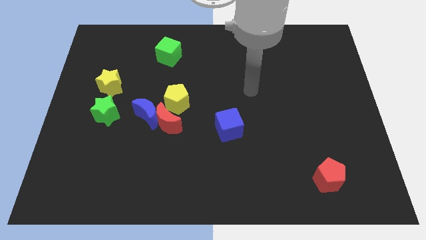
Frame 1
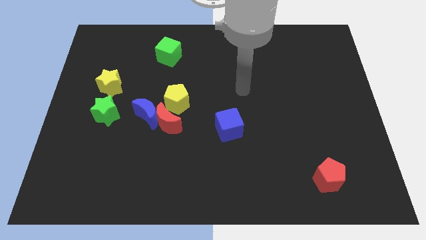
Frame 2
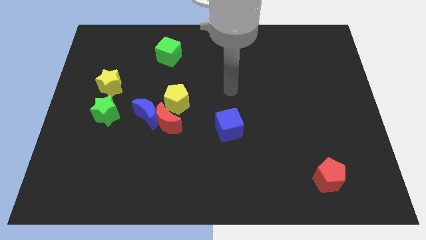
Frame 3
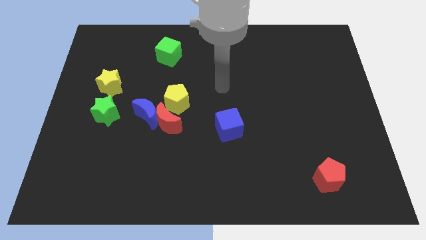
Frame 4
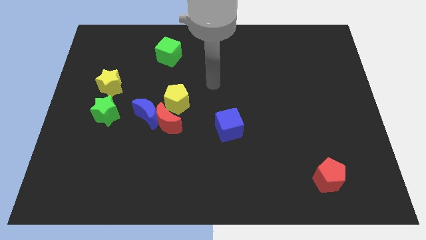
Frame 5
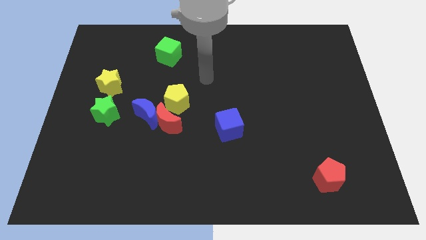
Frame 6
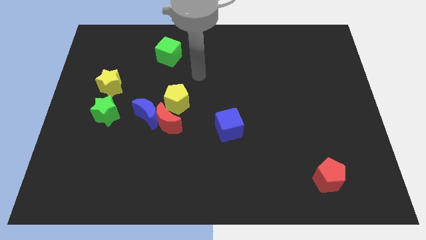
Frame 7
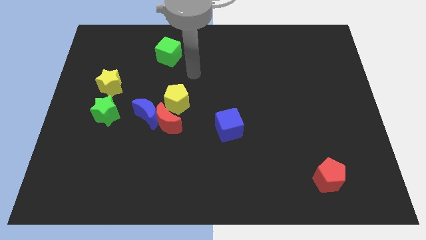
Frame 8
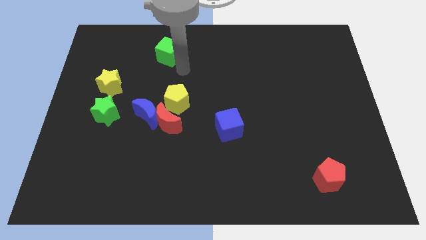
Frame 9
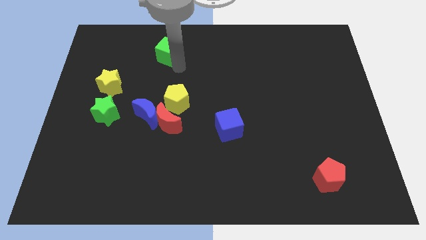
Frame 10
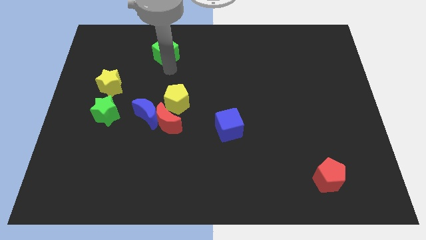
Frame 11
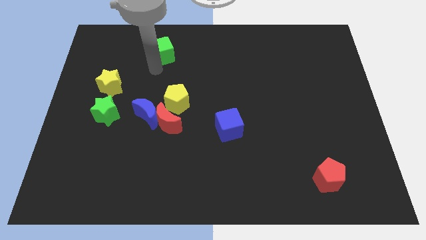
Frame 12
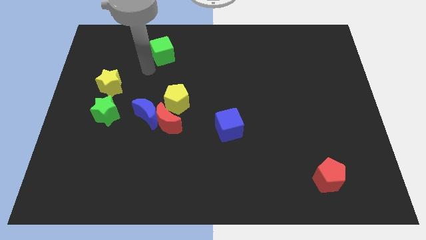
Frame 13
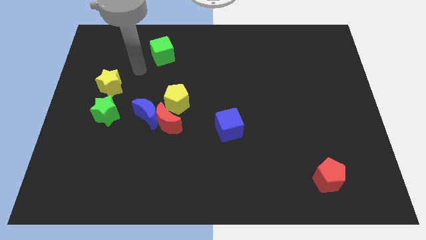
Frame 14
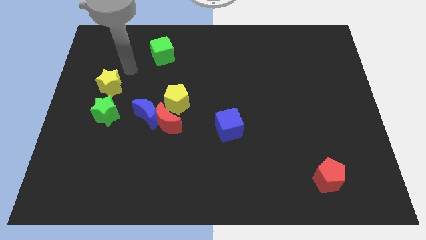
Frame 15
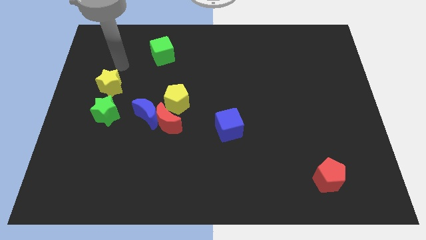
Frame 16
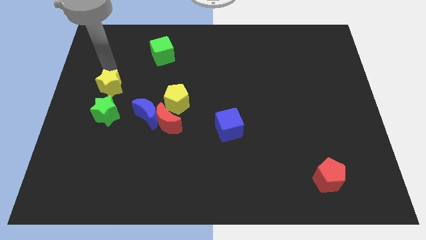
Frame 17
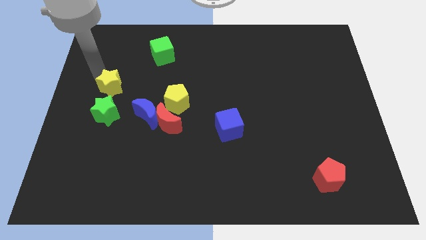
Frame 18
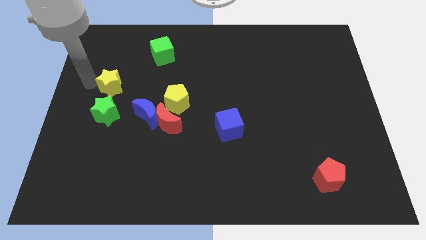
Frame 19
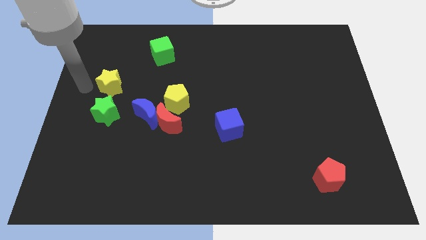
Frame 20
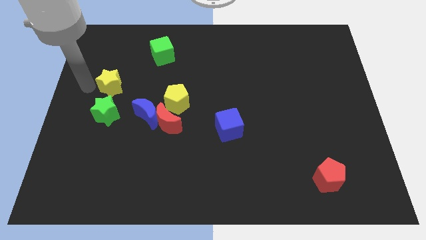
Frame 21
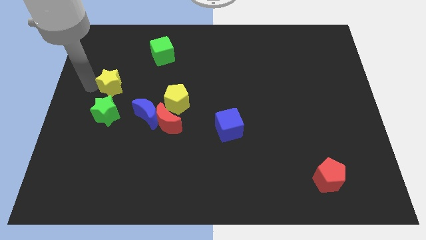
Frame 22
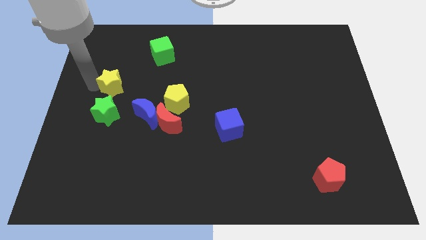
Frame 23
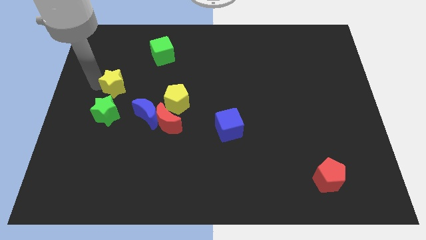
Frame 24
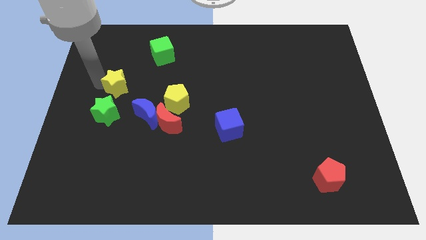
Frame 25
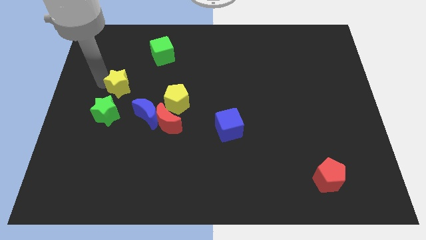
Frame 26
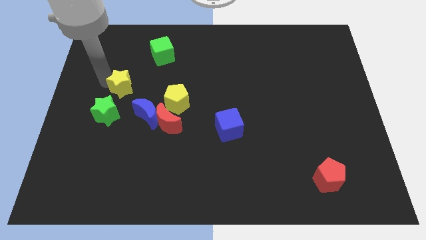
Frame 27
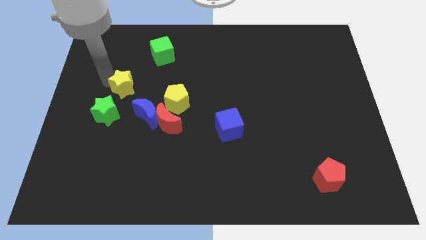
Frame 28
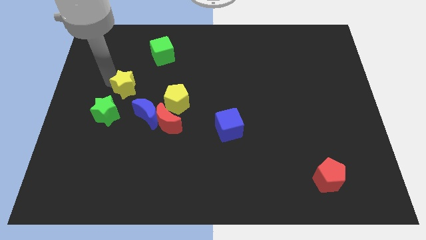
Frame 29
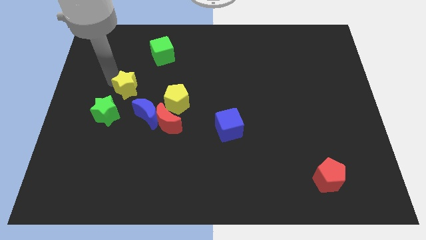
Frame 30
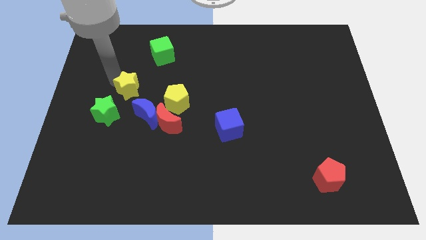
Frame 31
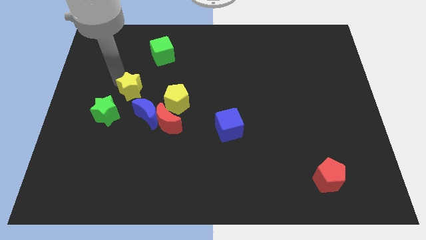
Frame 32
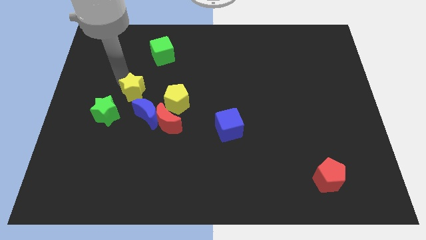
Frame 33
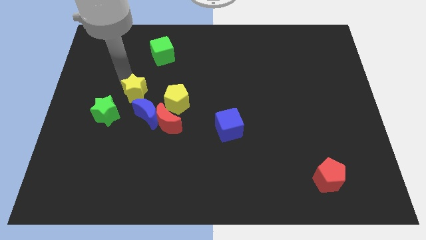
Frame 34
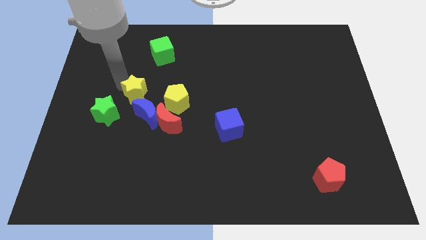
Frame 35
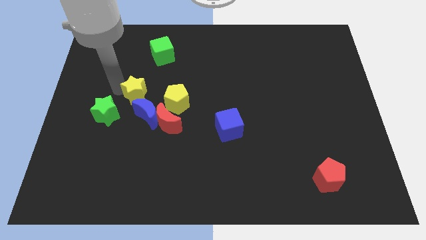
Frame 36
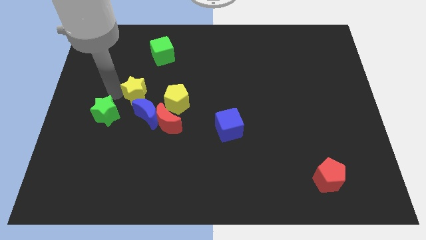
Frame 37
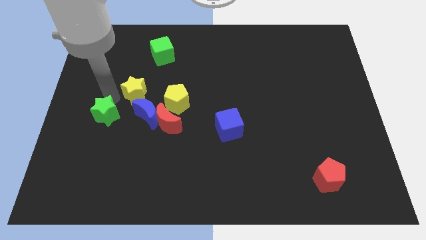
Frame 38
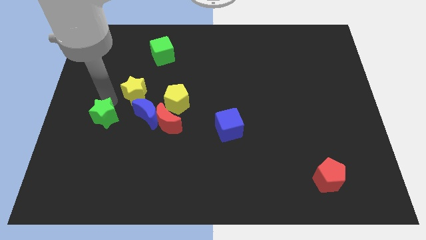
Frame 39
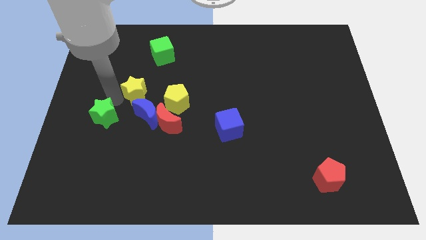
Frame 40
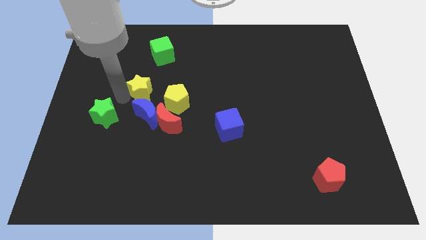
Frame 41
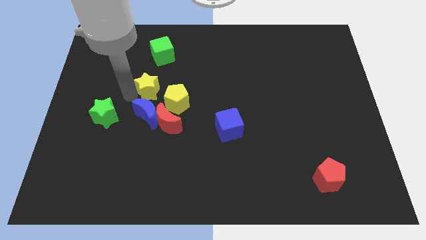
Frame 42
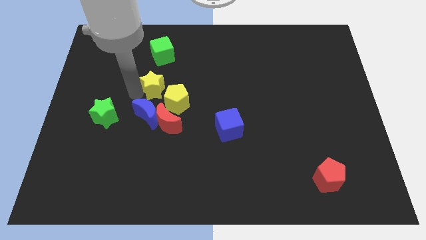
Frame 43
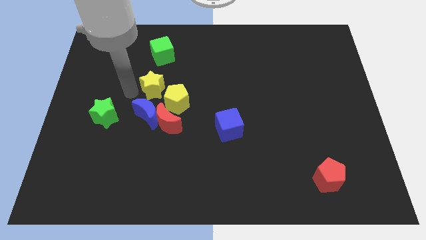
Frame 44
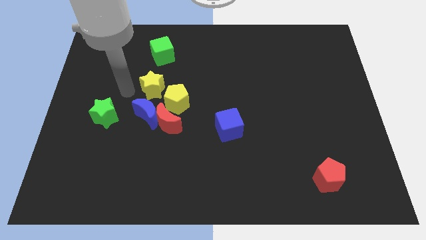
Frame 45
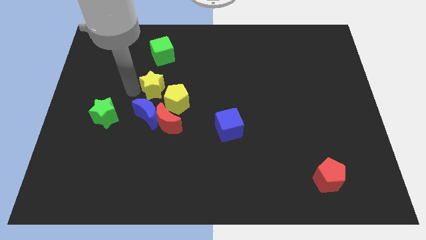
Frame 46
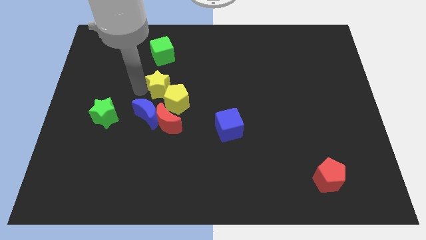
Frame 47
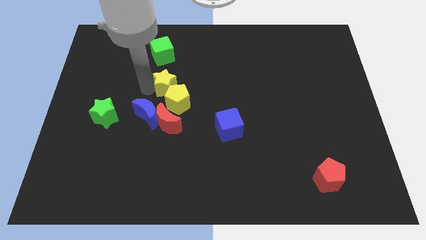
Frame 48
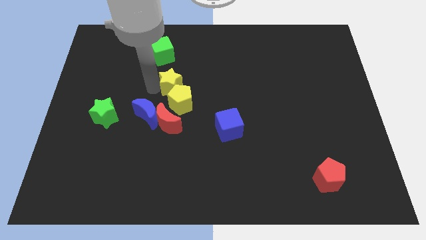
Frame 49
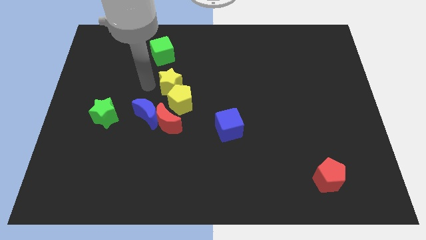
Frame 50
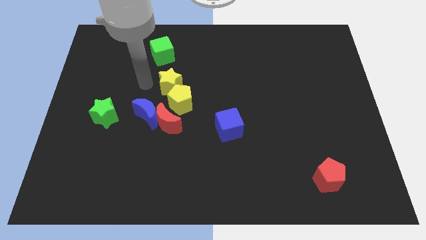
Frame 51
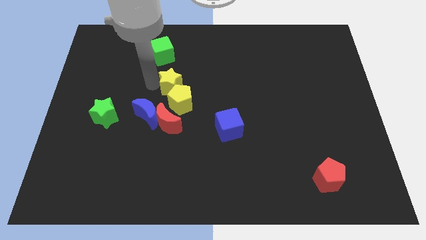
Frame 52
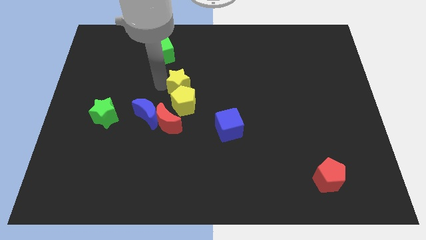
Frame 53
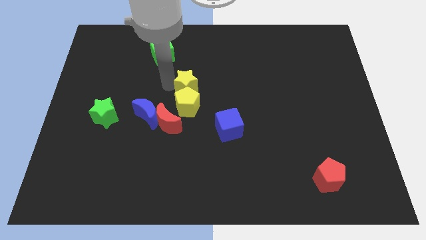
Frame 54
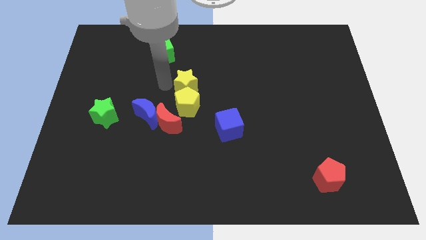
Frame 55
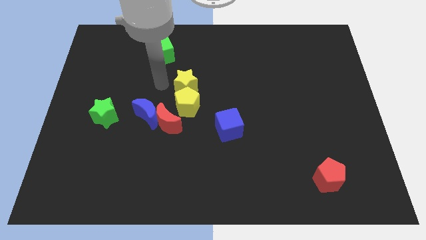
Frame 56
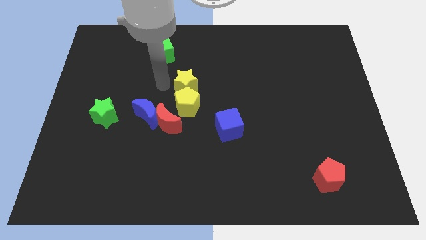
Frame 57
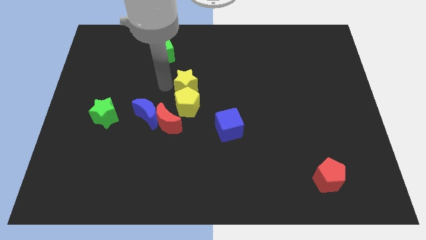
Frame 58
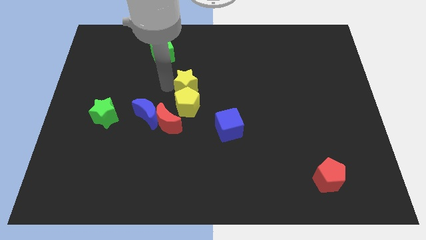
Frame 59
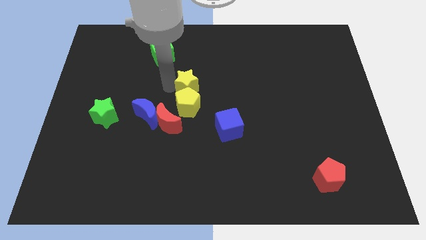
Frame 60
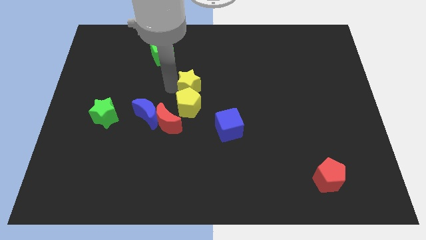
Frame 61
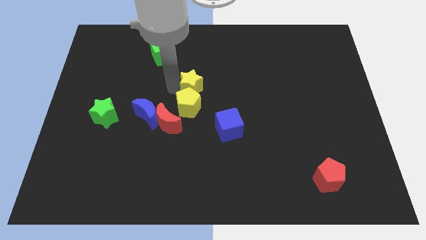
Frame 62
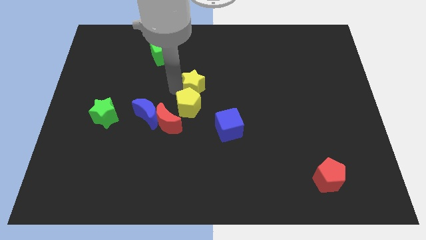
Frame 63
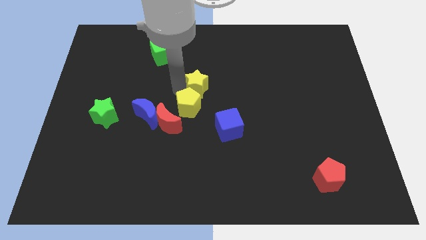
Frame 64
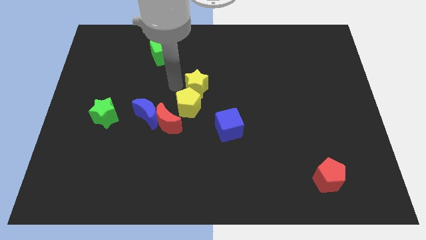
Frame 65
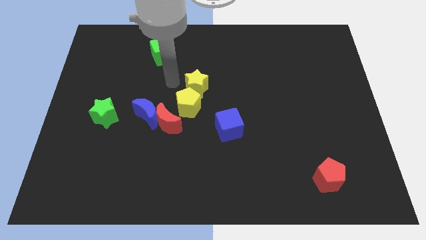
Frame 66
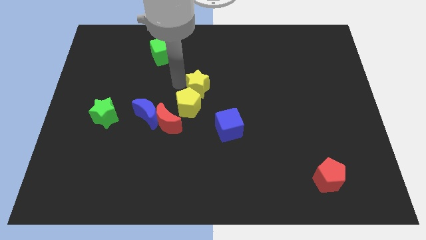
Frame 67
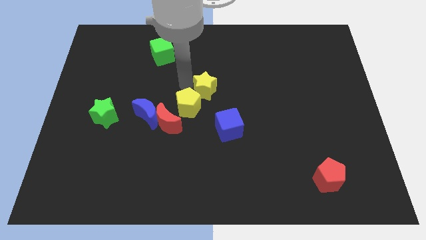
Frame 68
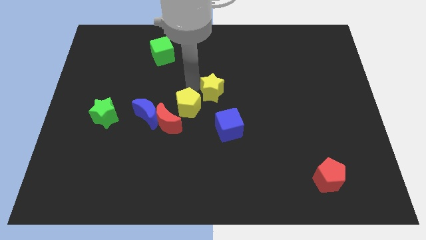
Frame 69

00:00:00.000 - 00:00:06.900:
slide the yellow star above the blue cube

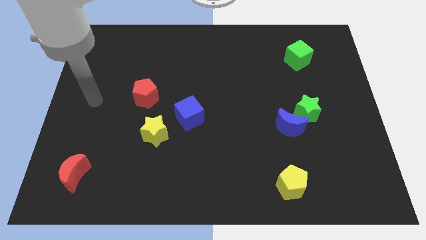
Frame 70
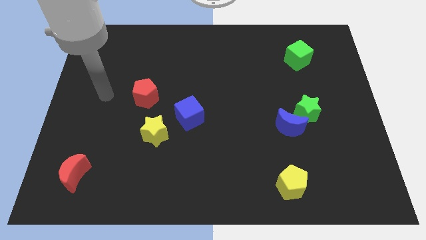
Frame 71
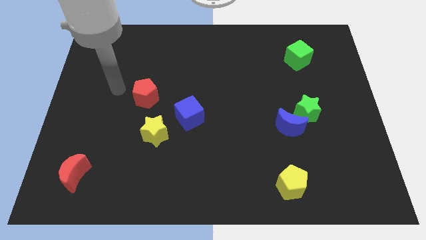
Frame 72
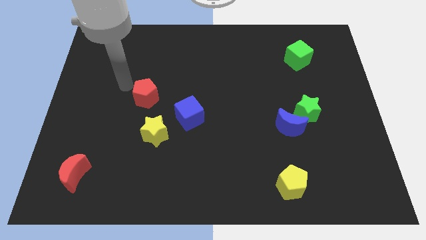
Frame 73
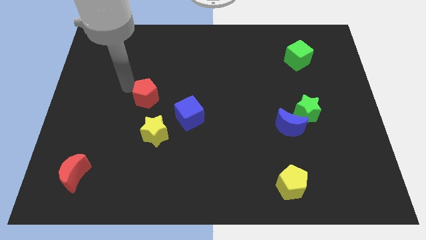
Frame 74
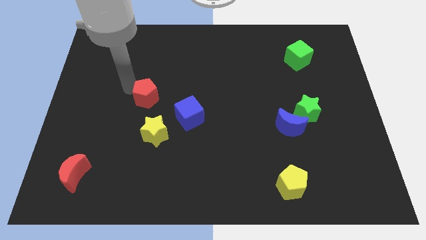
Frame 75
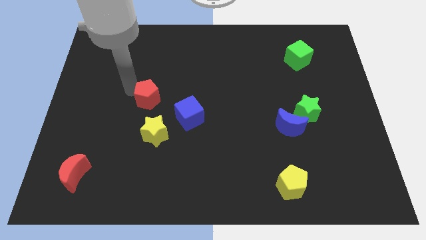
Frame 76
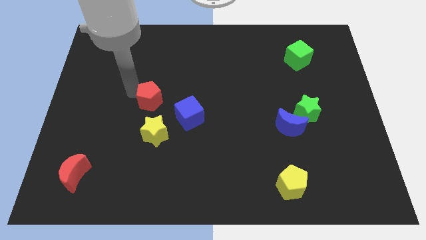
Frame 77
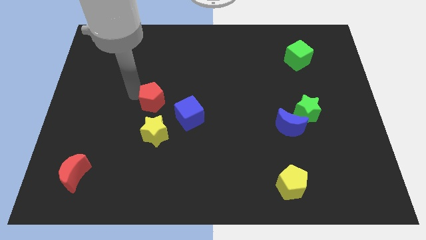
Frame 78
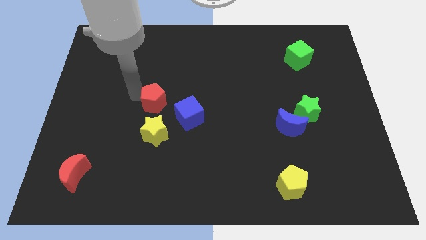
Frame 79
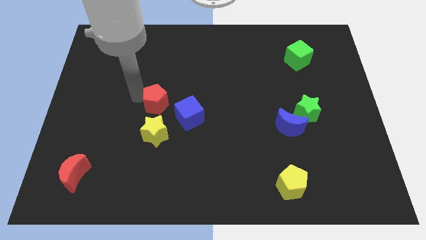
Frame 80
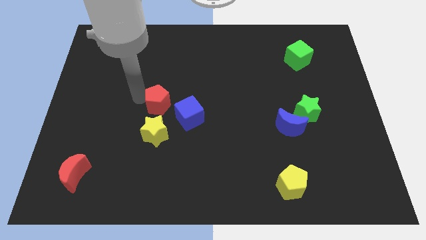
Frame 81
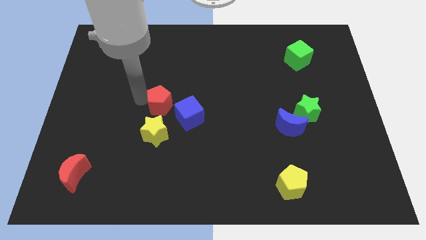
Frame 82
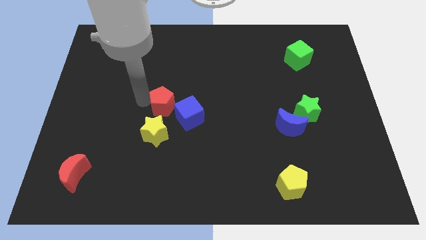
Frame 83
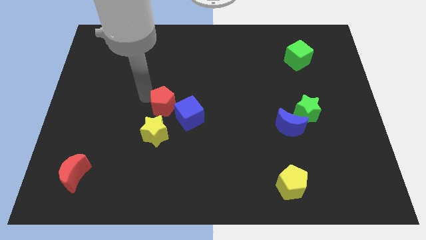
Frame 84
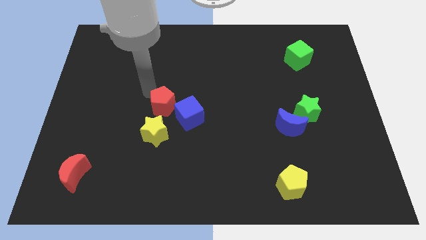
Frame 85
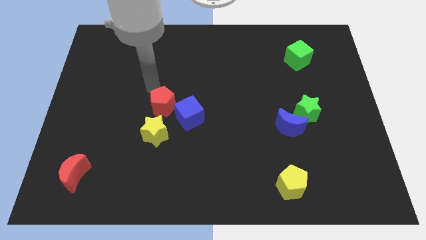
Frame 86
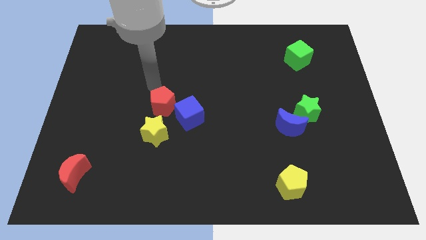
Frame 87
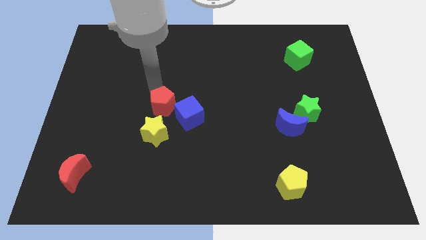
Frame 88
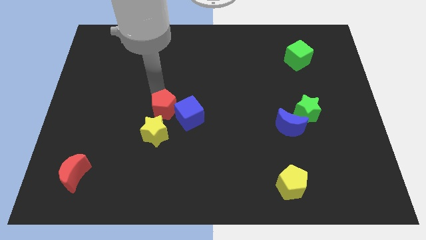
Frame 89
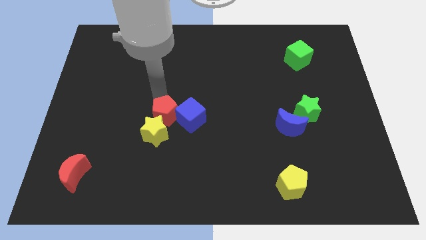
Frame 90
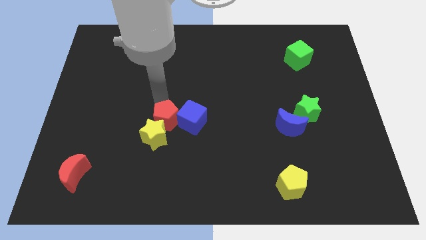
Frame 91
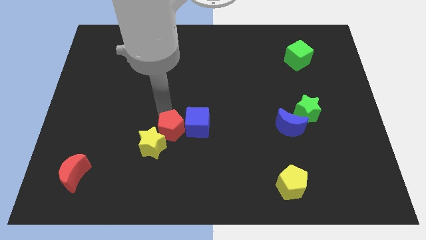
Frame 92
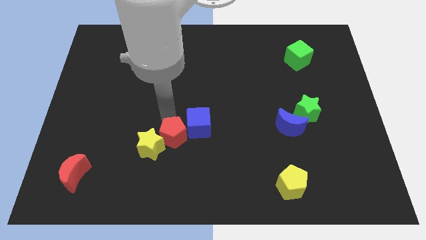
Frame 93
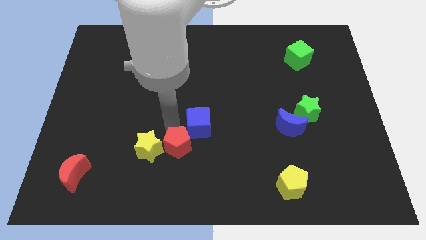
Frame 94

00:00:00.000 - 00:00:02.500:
push the red pentagon to the bottom right side of the yellow star
